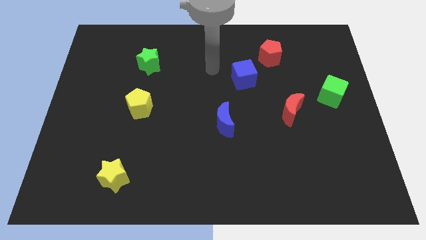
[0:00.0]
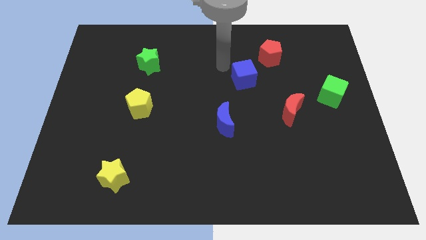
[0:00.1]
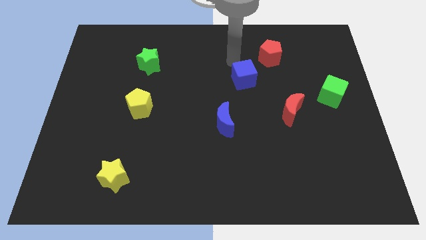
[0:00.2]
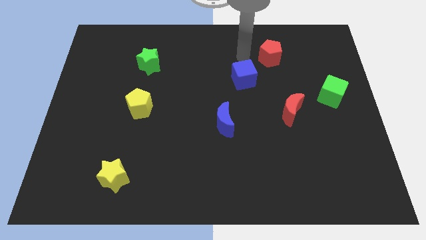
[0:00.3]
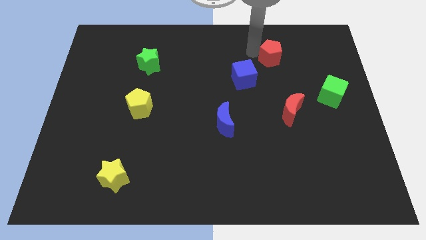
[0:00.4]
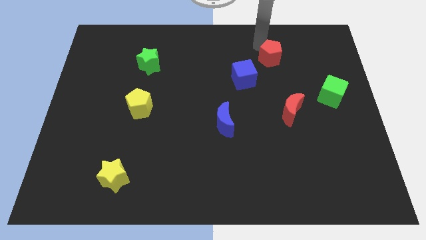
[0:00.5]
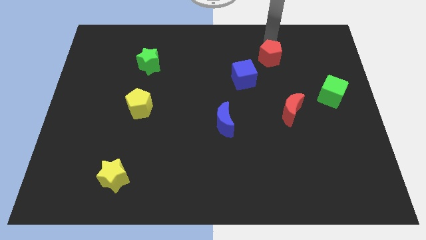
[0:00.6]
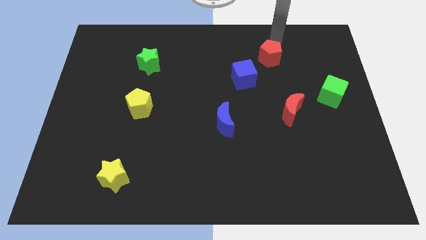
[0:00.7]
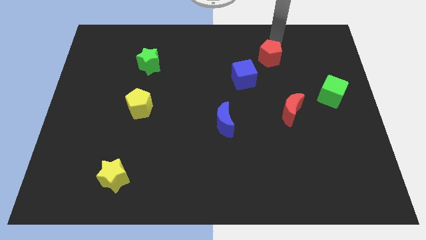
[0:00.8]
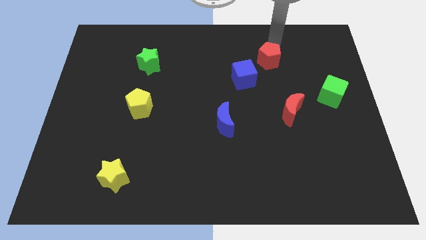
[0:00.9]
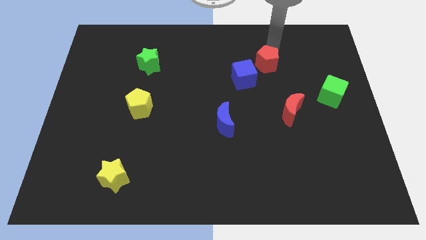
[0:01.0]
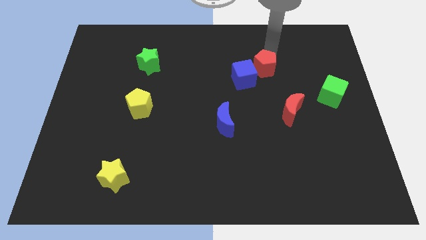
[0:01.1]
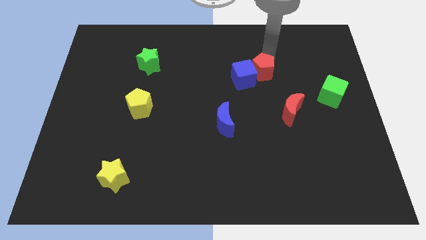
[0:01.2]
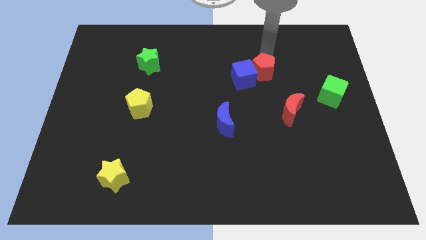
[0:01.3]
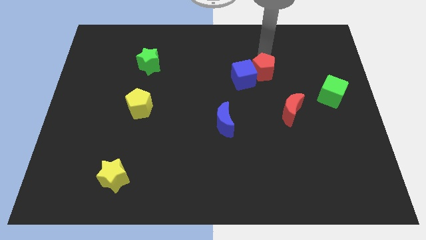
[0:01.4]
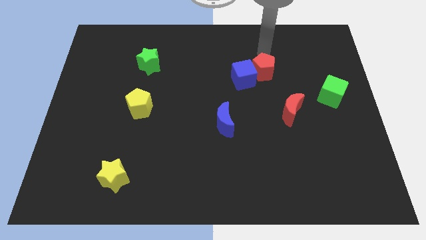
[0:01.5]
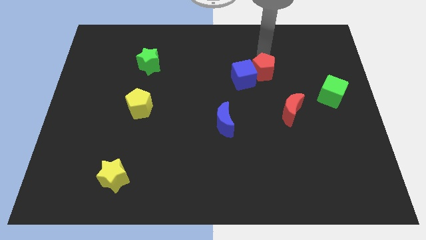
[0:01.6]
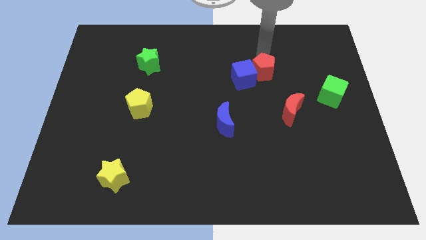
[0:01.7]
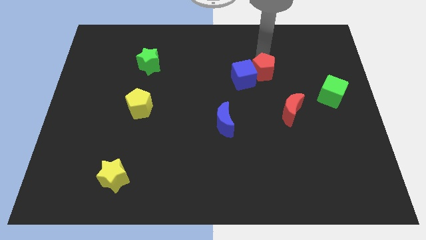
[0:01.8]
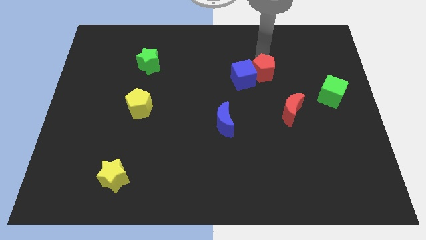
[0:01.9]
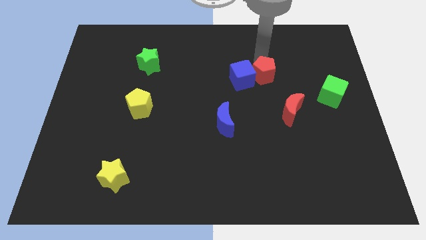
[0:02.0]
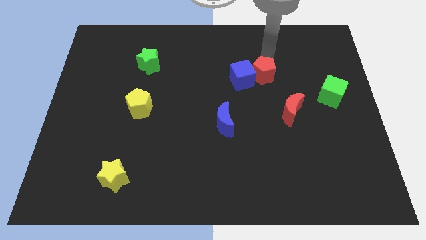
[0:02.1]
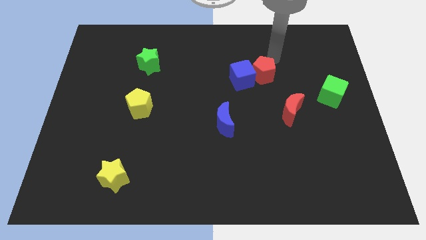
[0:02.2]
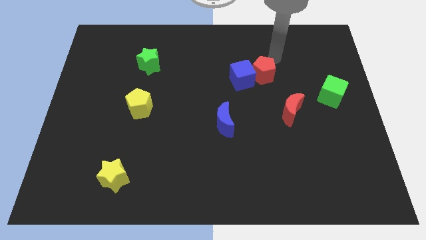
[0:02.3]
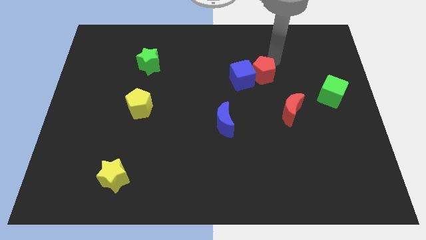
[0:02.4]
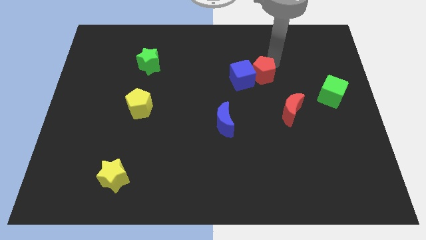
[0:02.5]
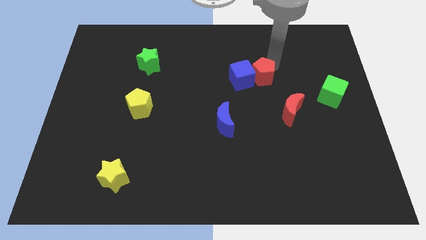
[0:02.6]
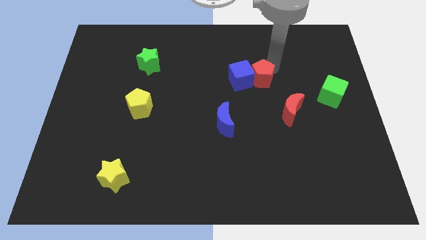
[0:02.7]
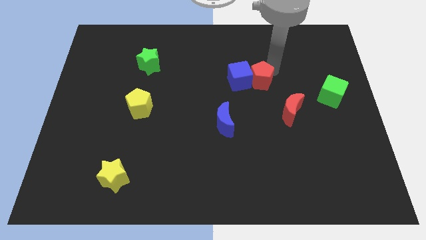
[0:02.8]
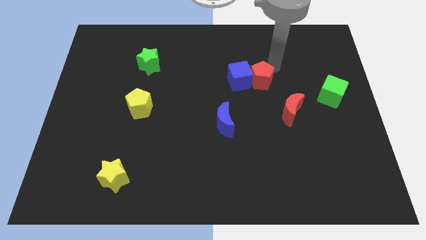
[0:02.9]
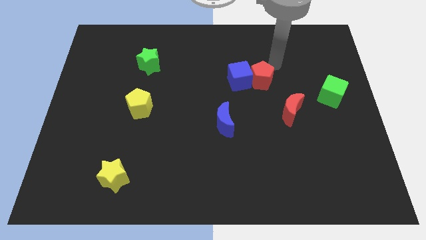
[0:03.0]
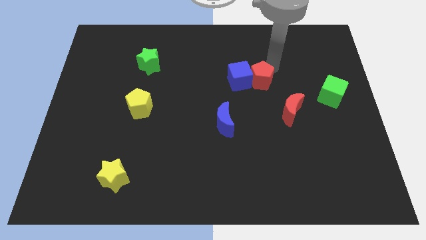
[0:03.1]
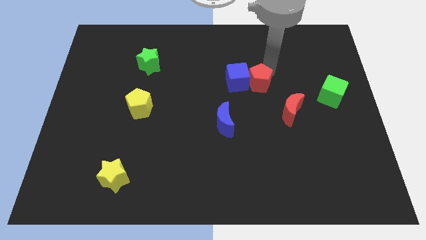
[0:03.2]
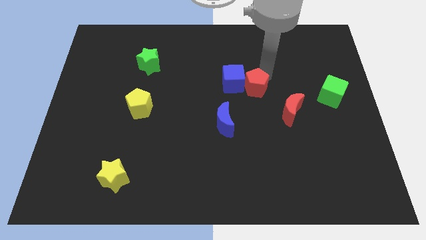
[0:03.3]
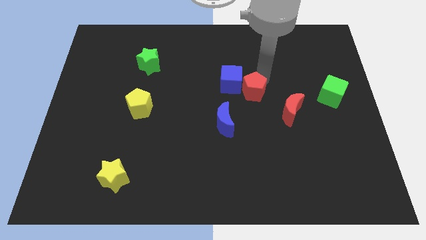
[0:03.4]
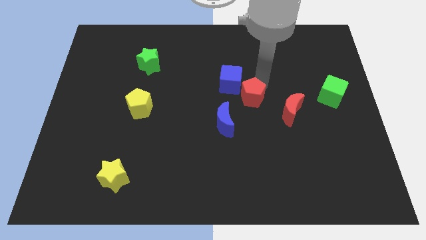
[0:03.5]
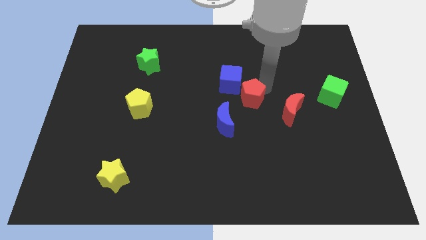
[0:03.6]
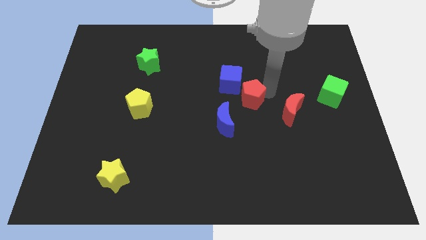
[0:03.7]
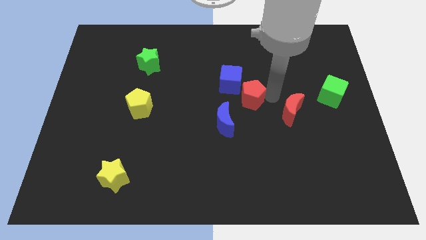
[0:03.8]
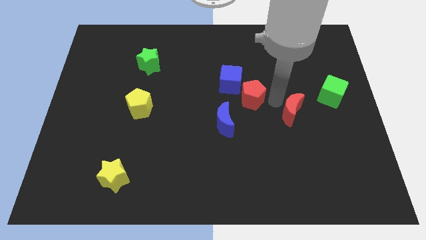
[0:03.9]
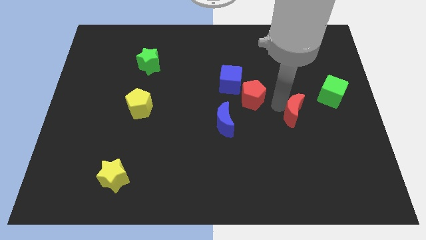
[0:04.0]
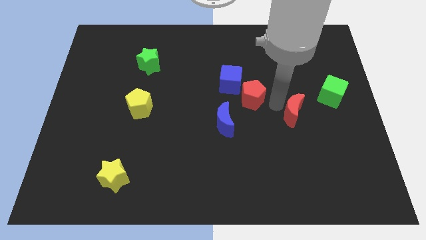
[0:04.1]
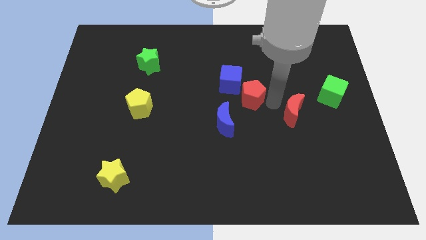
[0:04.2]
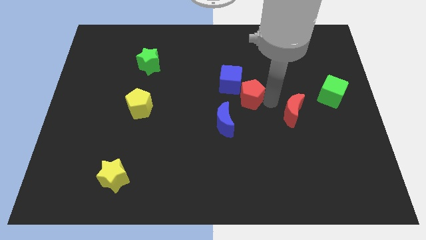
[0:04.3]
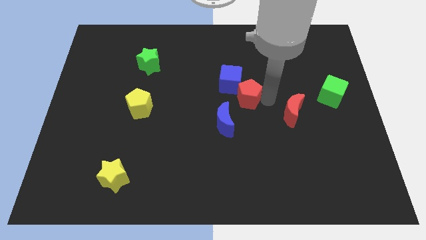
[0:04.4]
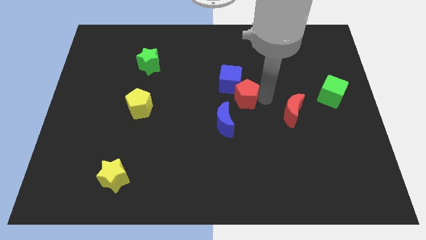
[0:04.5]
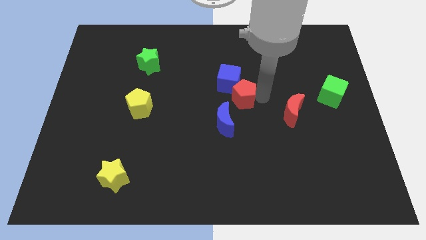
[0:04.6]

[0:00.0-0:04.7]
move the red pentagon above the blue moon

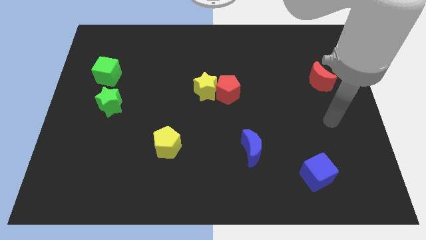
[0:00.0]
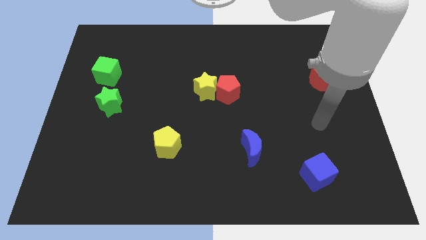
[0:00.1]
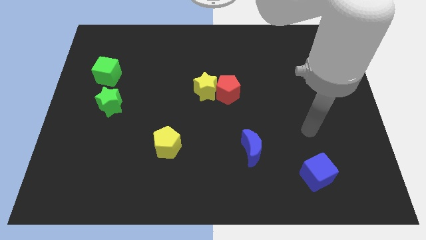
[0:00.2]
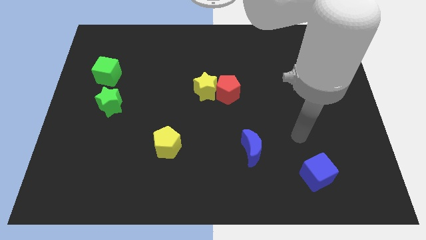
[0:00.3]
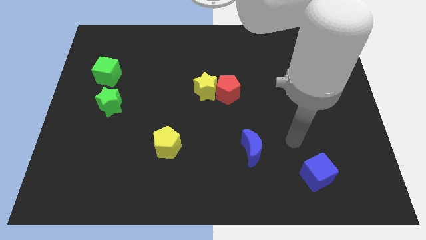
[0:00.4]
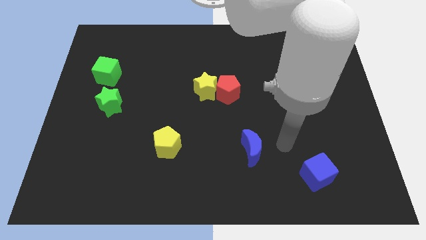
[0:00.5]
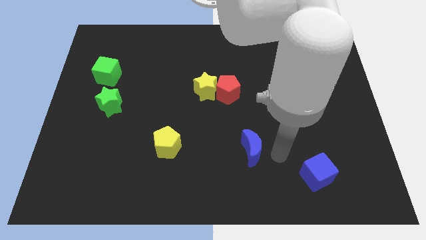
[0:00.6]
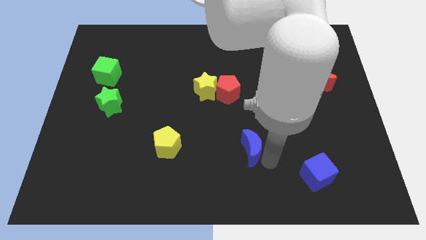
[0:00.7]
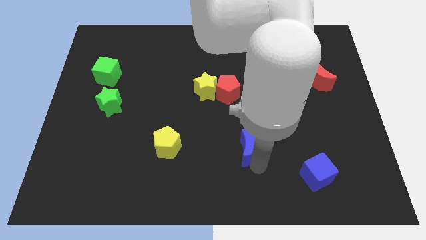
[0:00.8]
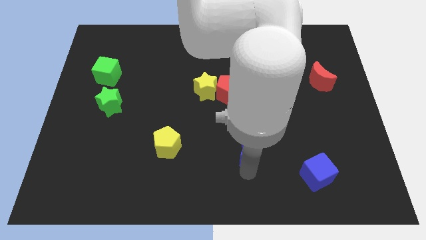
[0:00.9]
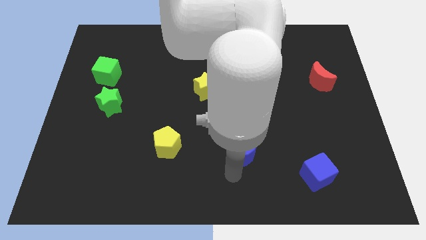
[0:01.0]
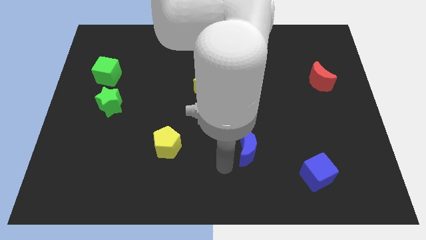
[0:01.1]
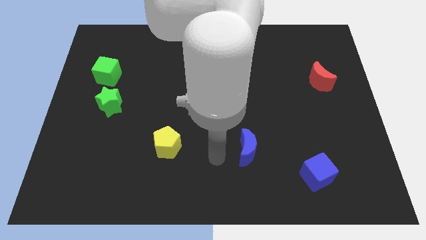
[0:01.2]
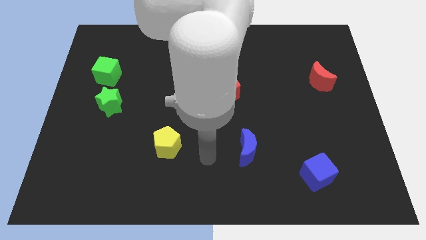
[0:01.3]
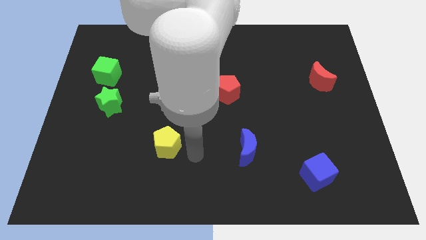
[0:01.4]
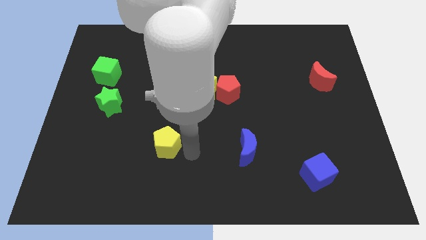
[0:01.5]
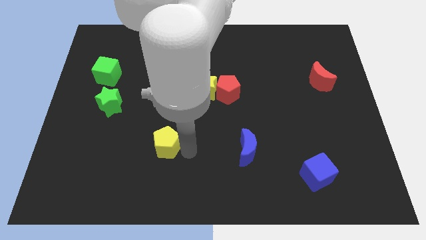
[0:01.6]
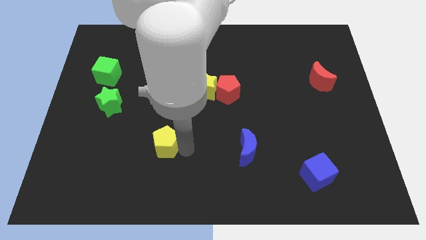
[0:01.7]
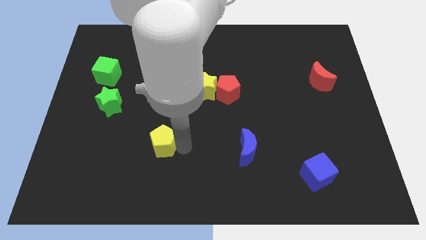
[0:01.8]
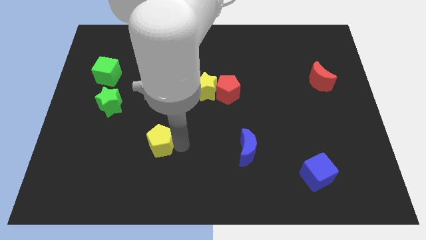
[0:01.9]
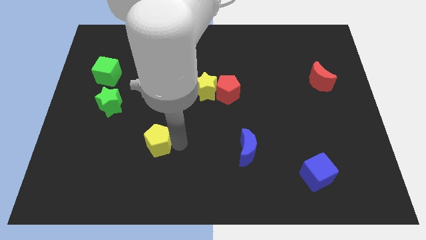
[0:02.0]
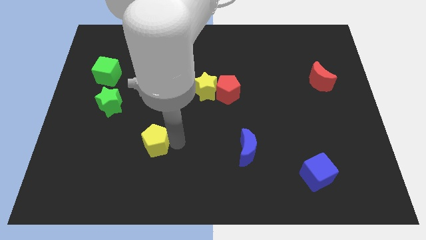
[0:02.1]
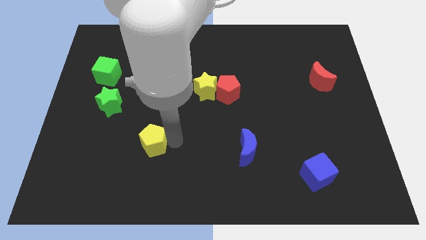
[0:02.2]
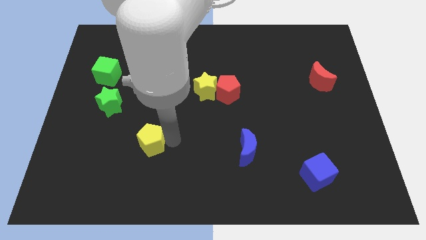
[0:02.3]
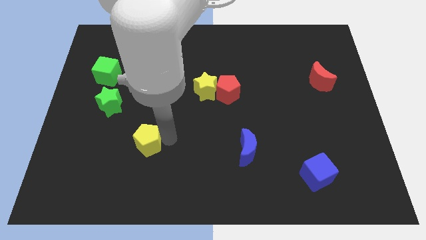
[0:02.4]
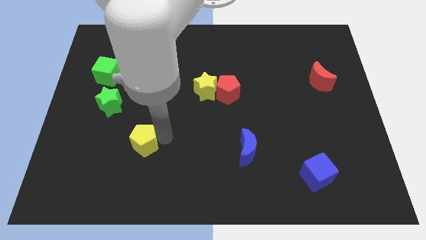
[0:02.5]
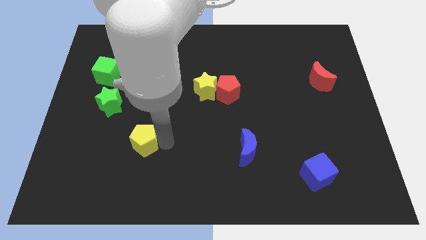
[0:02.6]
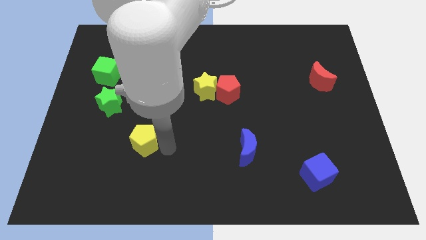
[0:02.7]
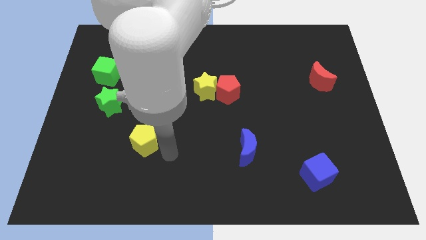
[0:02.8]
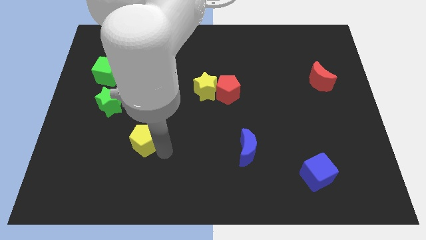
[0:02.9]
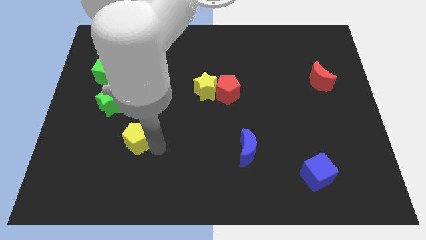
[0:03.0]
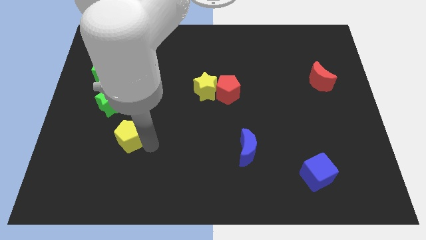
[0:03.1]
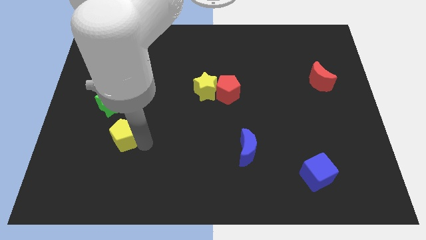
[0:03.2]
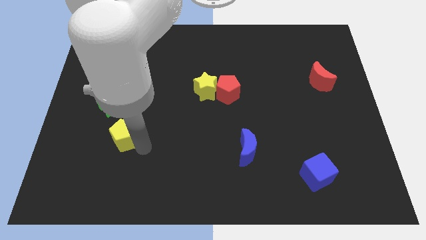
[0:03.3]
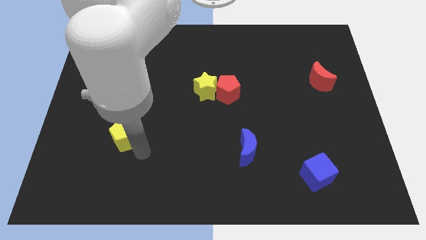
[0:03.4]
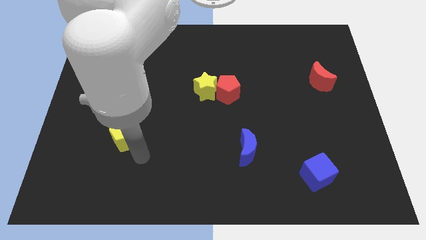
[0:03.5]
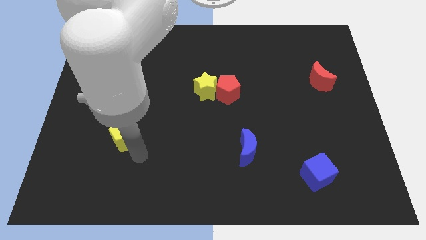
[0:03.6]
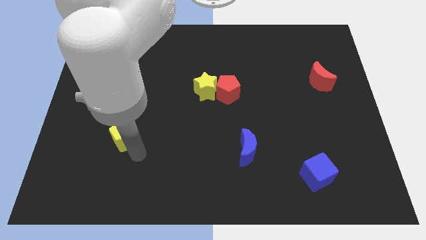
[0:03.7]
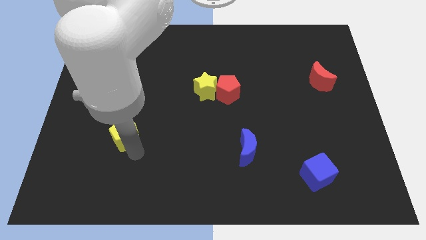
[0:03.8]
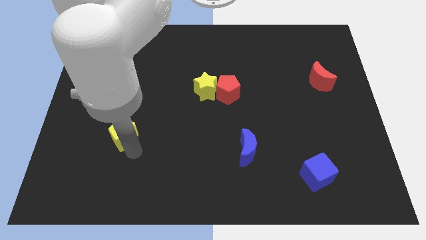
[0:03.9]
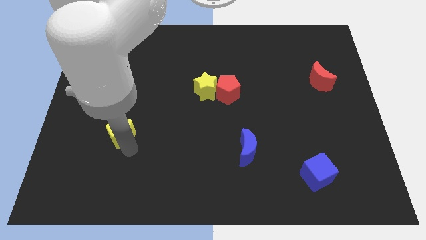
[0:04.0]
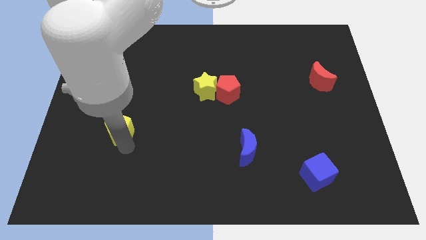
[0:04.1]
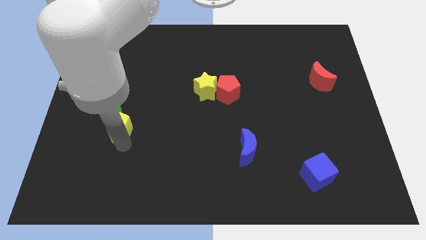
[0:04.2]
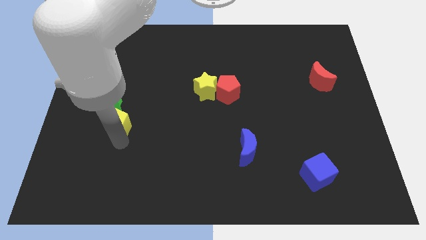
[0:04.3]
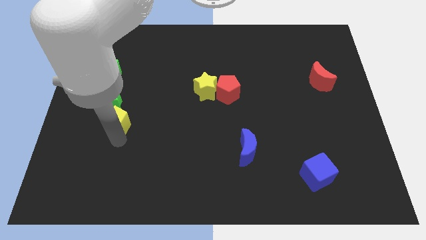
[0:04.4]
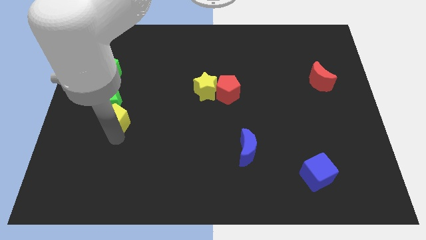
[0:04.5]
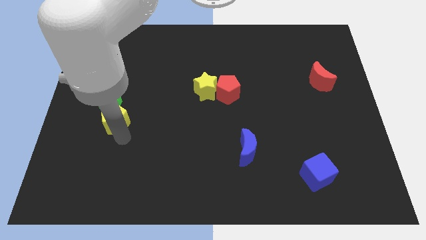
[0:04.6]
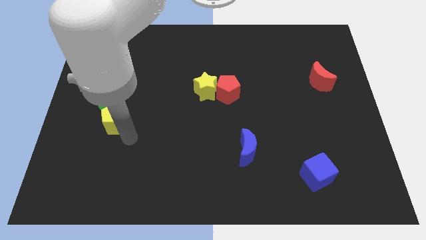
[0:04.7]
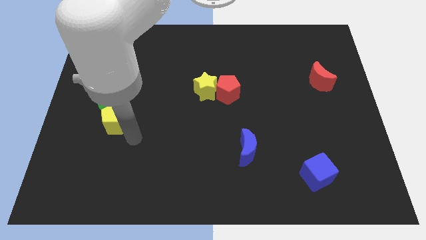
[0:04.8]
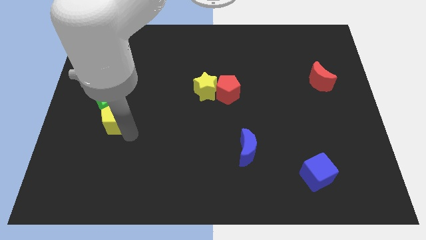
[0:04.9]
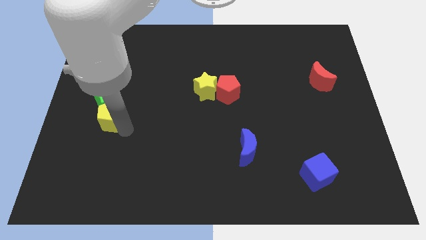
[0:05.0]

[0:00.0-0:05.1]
push the yellow pentagon below the green cube
